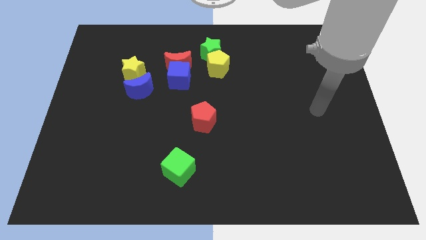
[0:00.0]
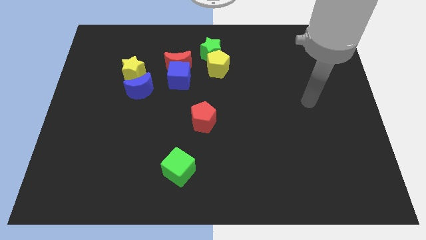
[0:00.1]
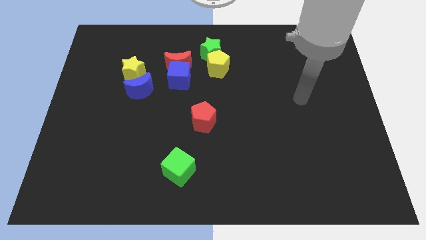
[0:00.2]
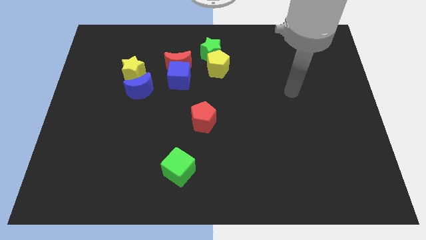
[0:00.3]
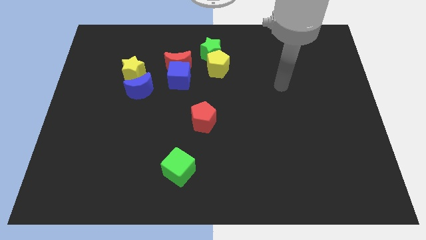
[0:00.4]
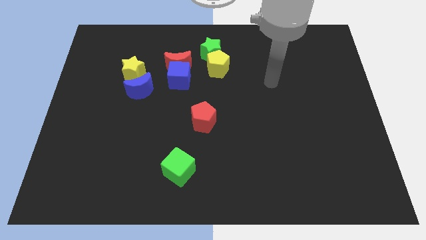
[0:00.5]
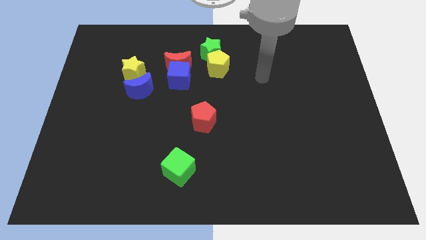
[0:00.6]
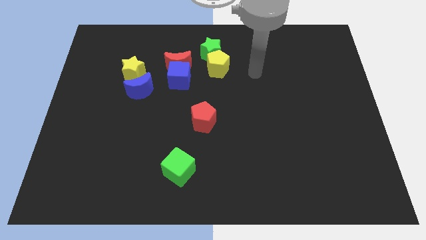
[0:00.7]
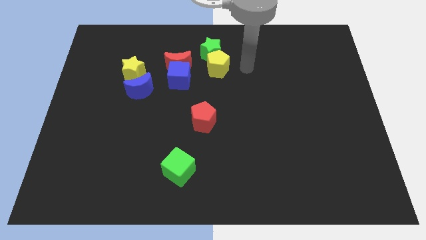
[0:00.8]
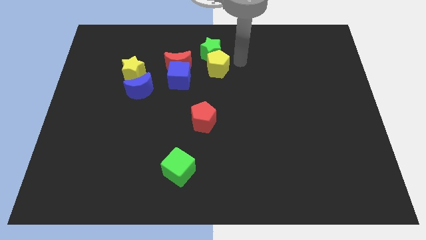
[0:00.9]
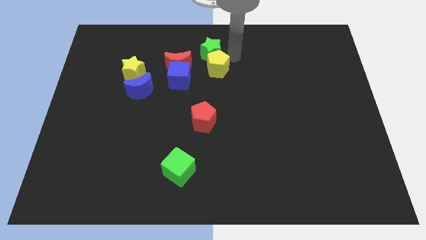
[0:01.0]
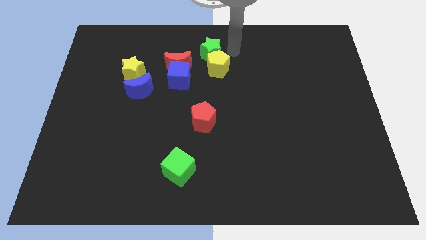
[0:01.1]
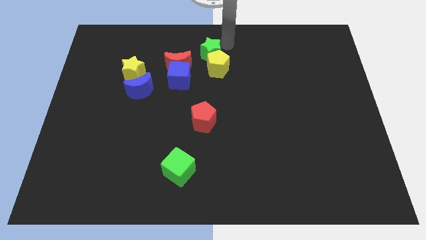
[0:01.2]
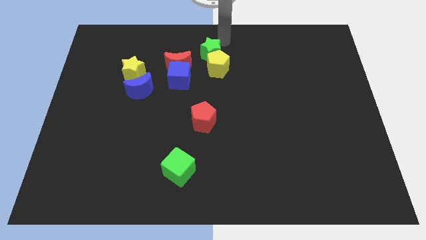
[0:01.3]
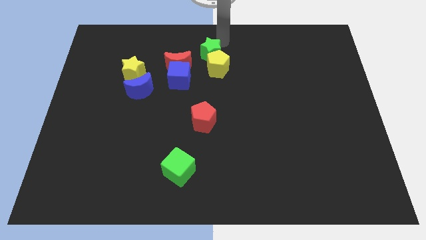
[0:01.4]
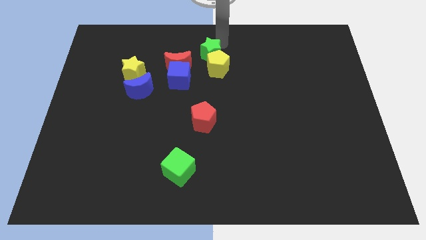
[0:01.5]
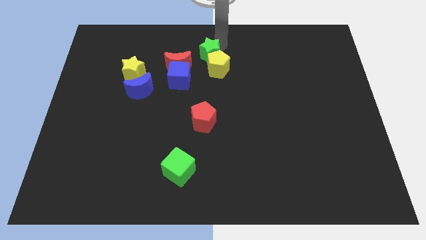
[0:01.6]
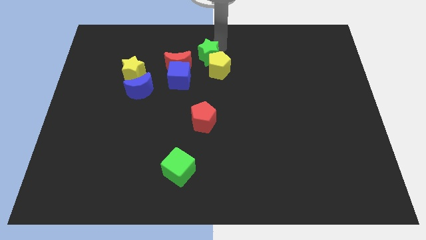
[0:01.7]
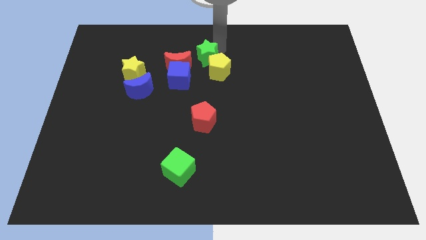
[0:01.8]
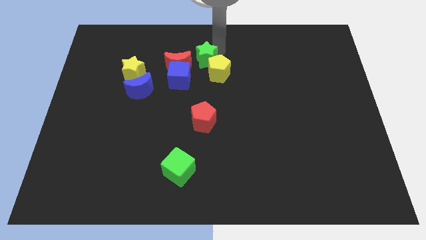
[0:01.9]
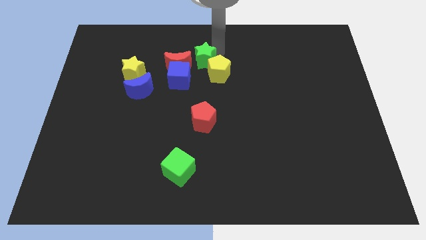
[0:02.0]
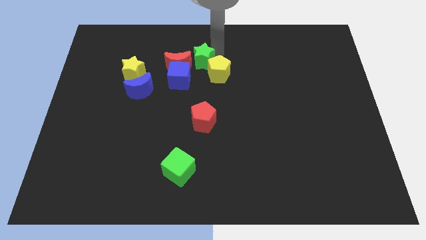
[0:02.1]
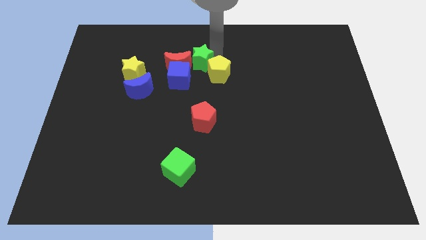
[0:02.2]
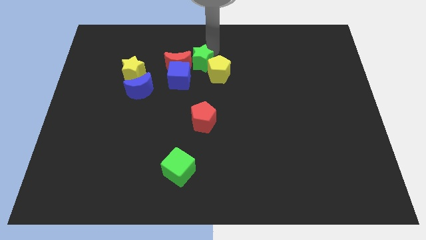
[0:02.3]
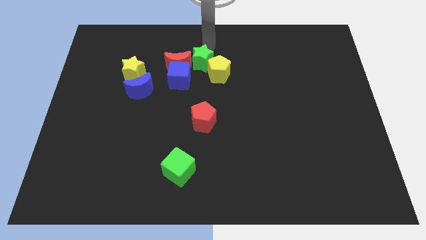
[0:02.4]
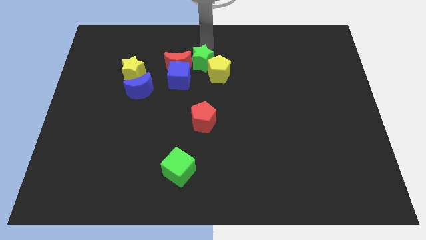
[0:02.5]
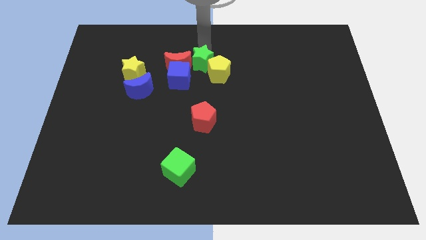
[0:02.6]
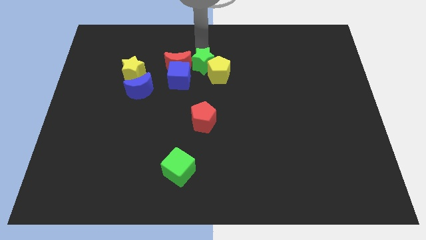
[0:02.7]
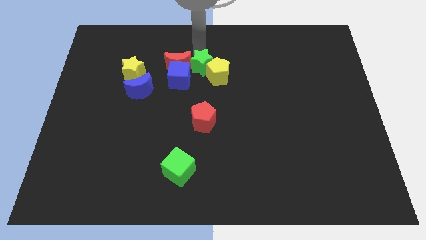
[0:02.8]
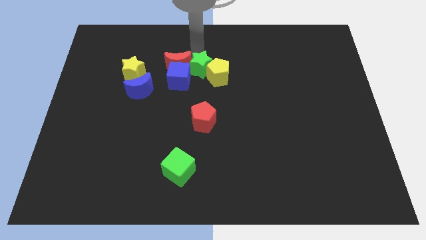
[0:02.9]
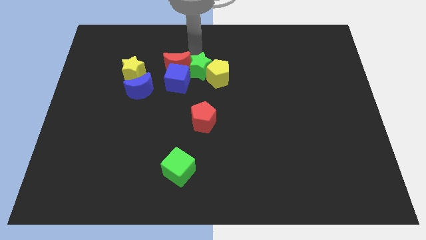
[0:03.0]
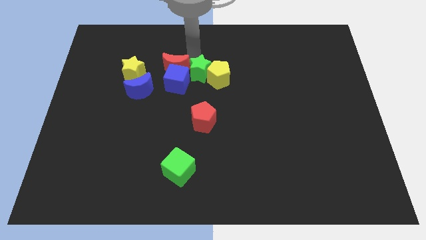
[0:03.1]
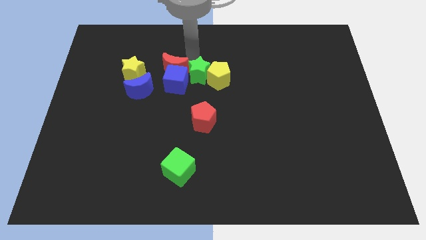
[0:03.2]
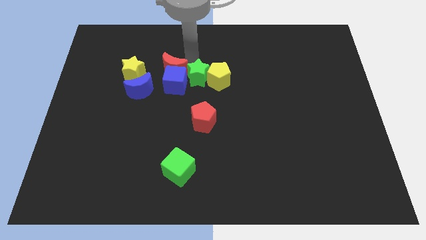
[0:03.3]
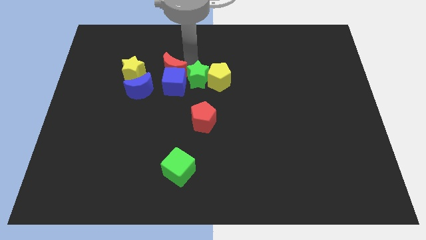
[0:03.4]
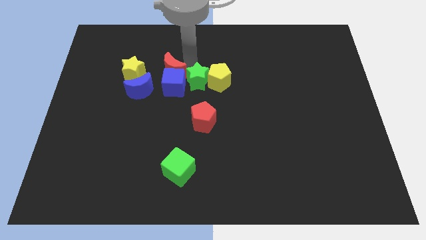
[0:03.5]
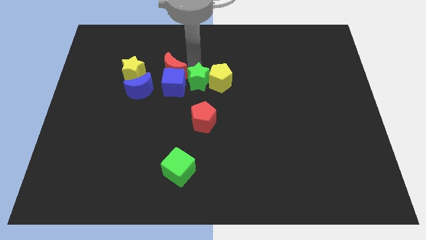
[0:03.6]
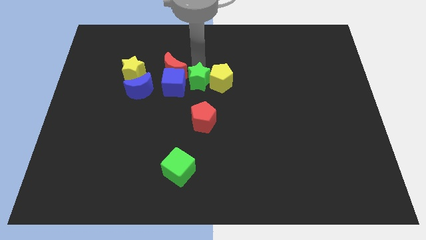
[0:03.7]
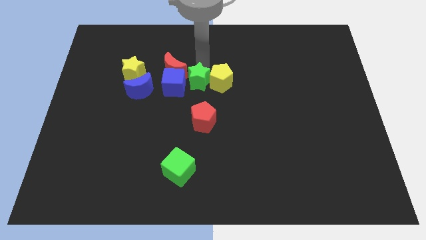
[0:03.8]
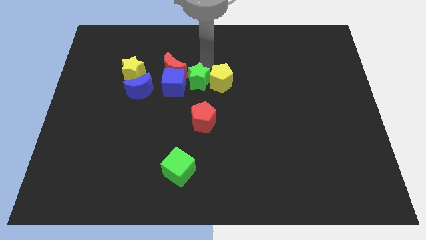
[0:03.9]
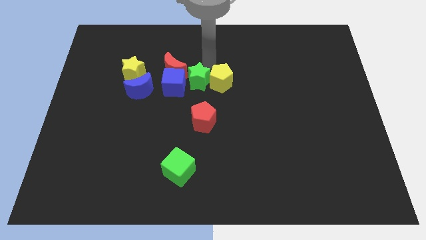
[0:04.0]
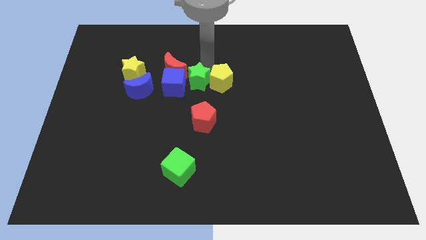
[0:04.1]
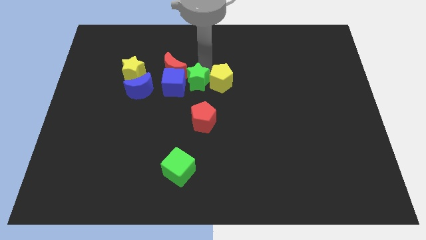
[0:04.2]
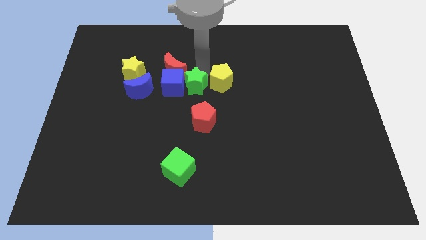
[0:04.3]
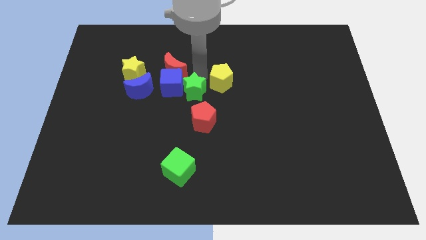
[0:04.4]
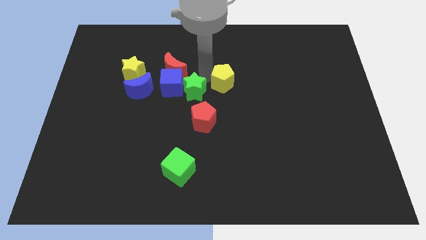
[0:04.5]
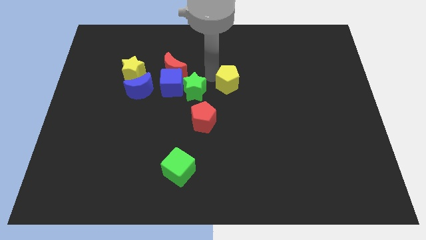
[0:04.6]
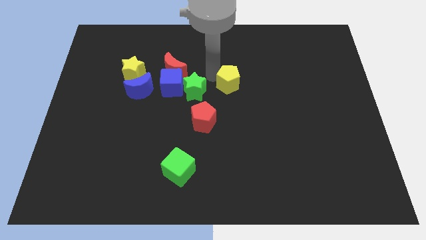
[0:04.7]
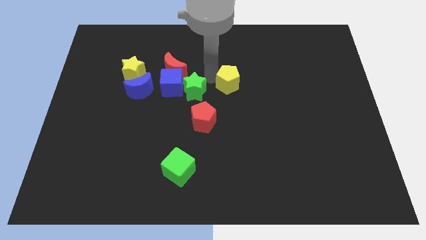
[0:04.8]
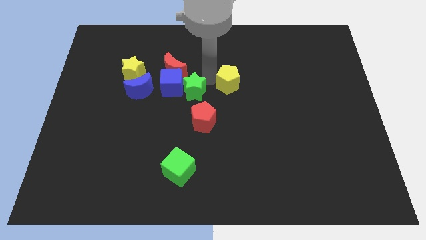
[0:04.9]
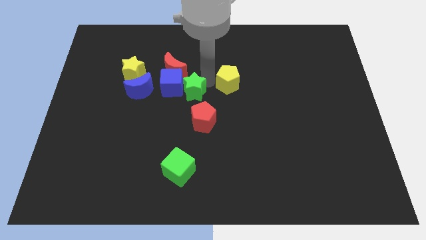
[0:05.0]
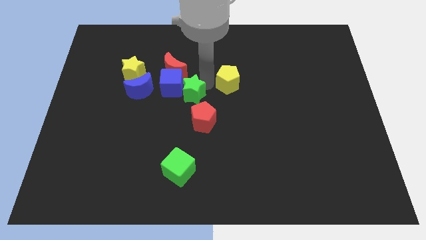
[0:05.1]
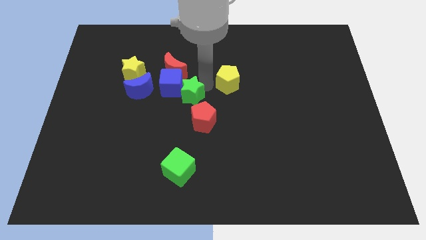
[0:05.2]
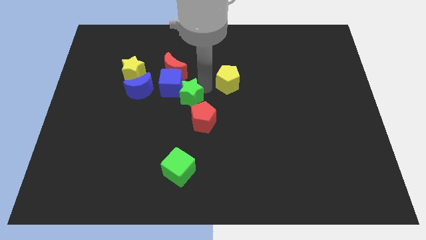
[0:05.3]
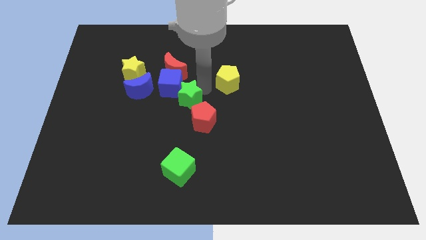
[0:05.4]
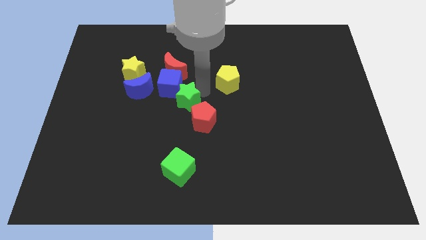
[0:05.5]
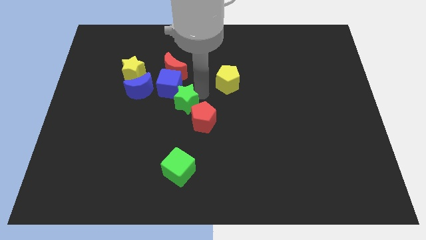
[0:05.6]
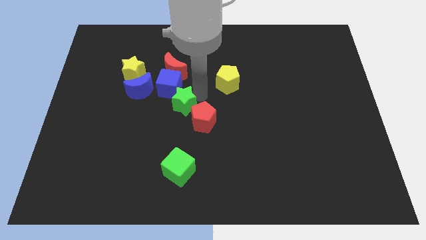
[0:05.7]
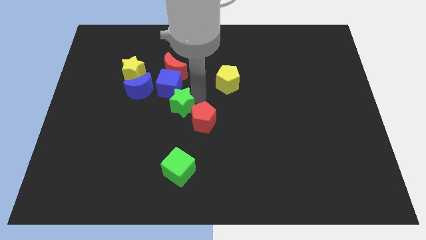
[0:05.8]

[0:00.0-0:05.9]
push the green star to the bottom right of the blue moon

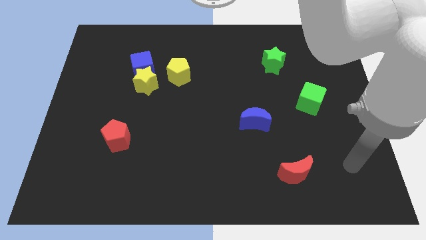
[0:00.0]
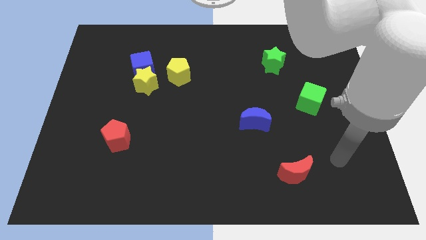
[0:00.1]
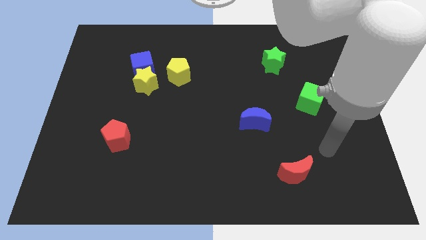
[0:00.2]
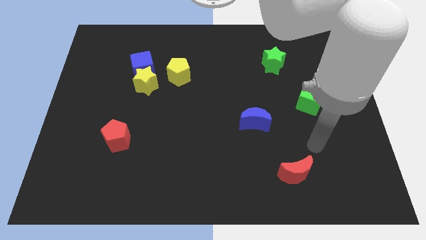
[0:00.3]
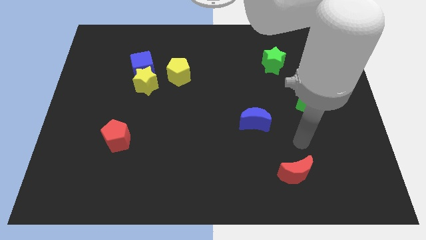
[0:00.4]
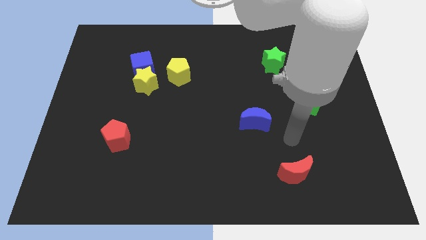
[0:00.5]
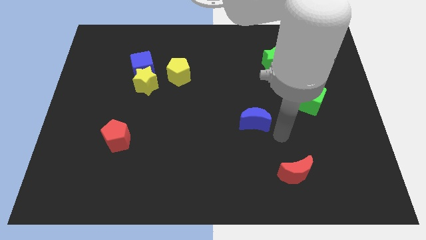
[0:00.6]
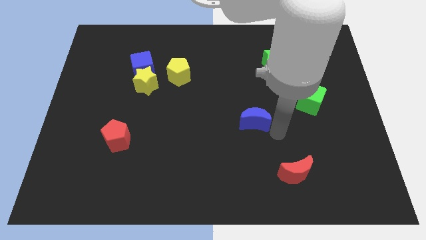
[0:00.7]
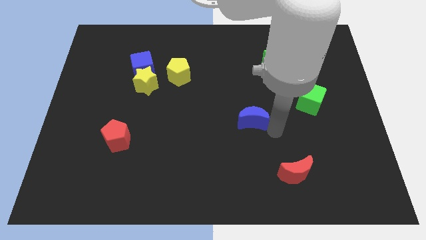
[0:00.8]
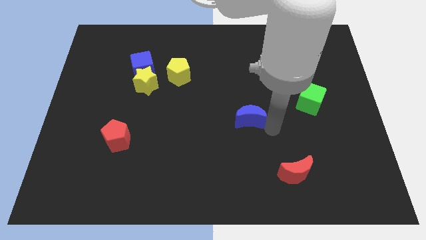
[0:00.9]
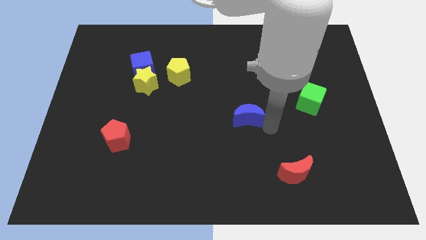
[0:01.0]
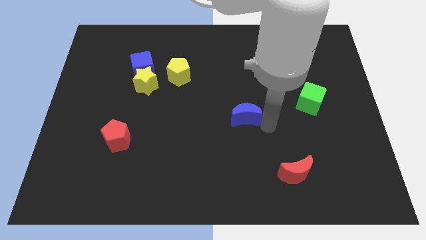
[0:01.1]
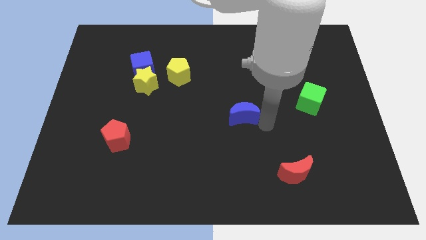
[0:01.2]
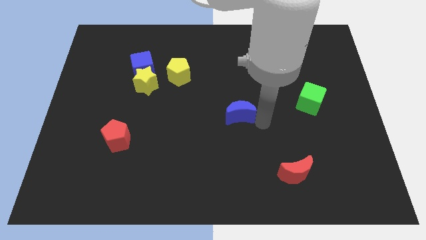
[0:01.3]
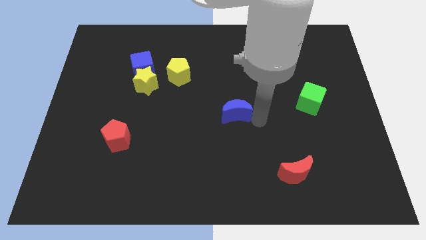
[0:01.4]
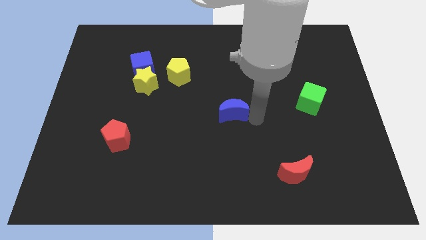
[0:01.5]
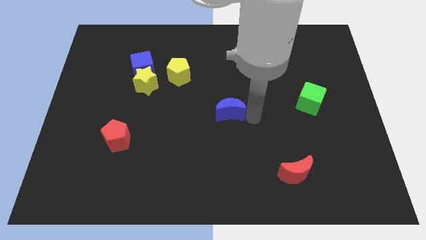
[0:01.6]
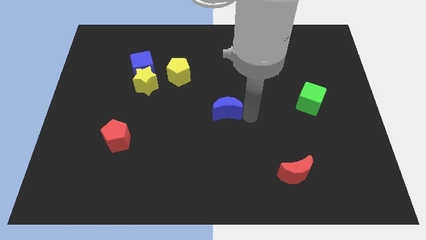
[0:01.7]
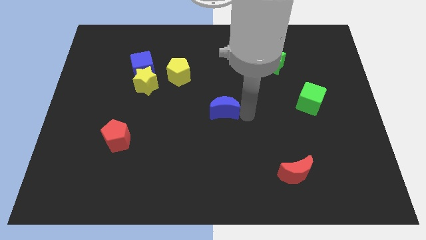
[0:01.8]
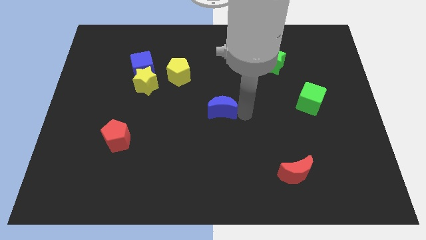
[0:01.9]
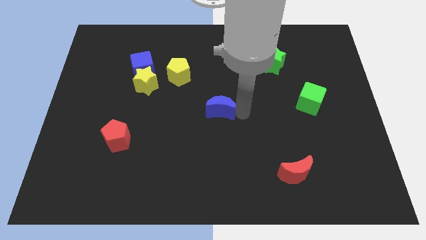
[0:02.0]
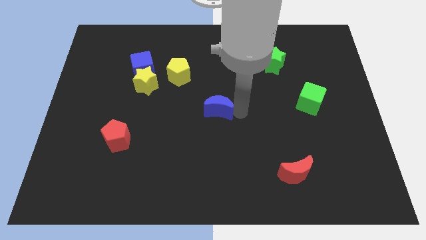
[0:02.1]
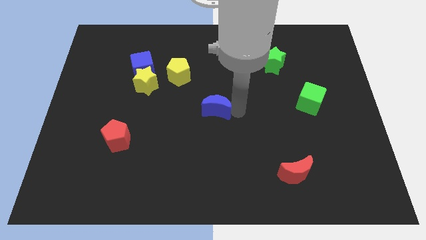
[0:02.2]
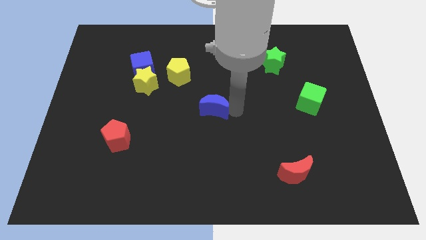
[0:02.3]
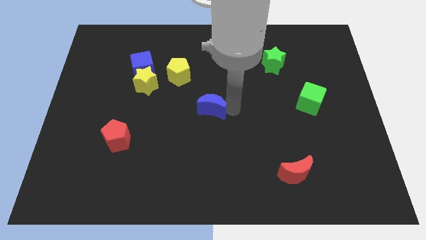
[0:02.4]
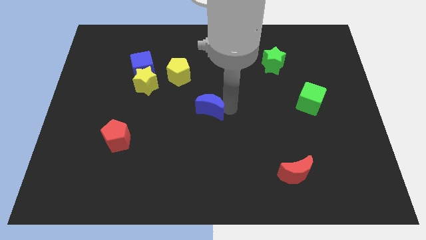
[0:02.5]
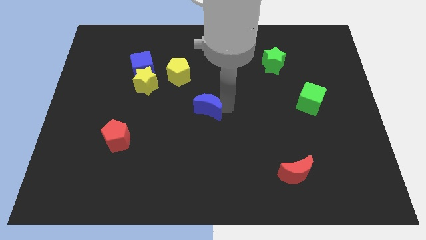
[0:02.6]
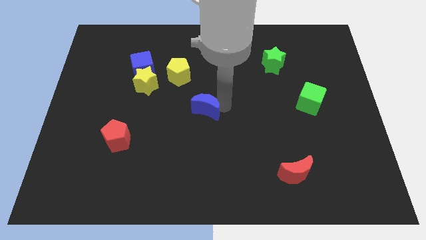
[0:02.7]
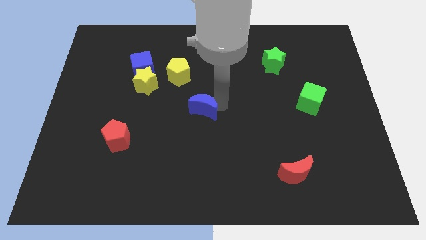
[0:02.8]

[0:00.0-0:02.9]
slide the blue moon diagonally down and to the right of the yellow pentagon
